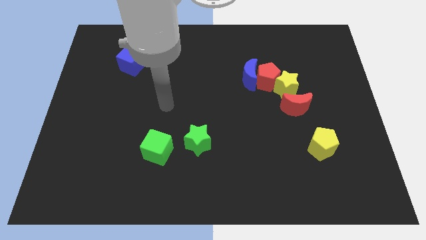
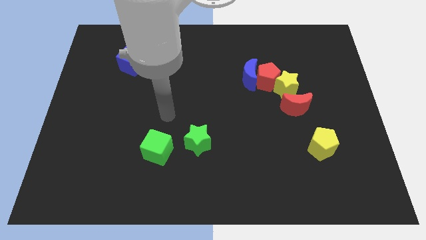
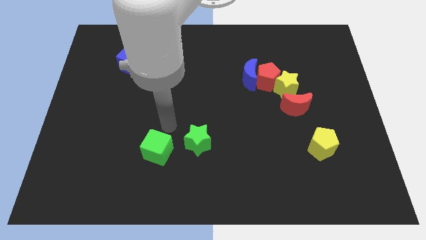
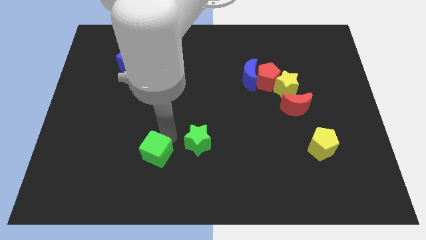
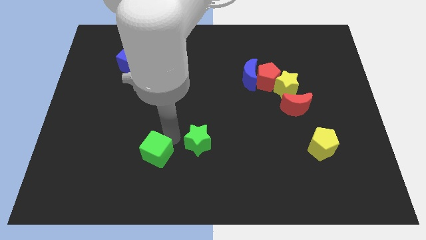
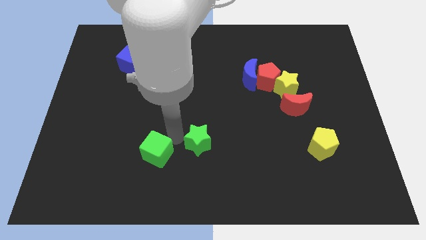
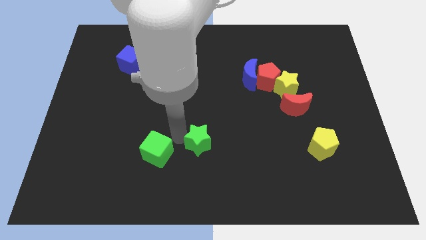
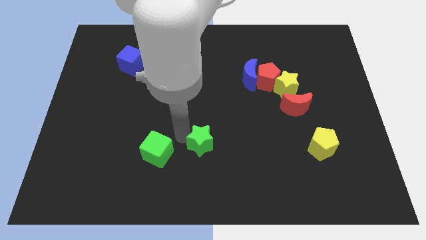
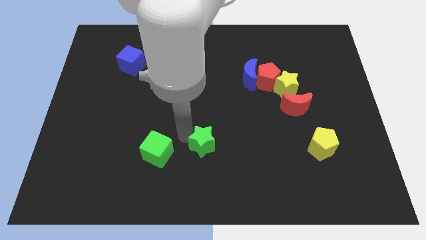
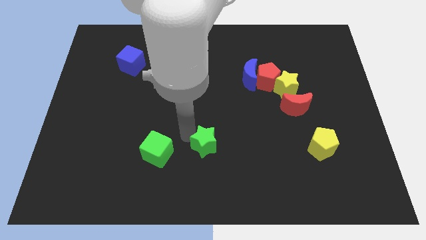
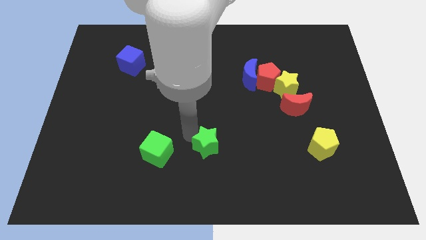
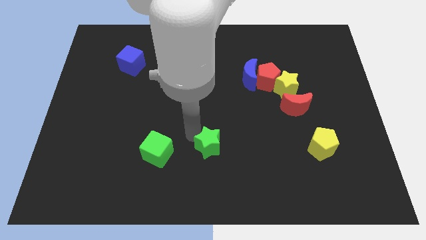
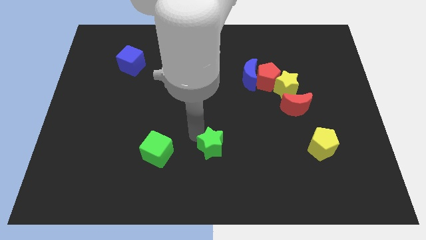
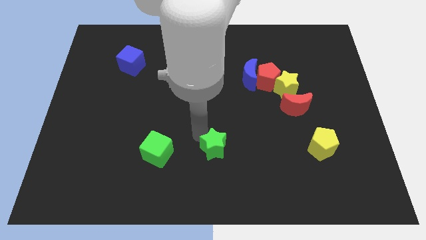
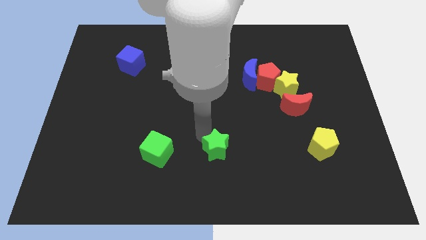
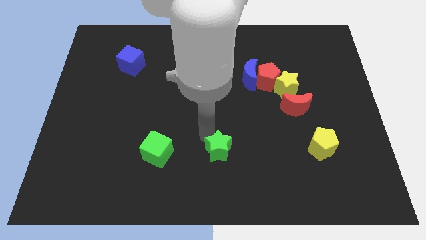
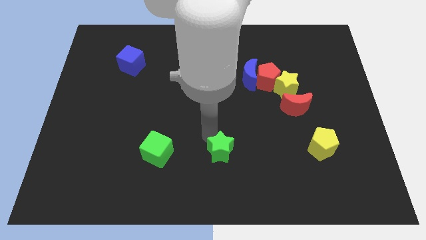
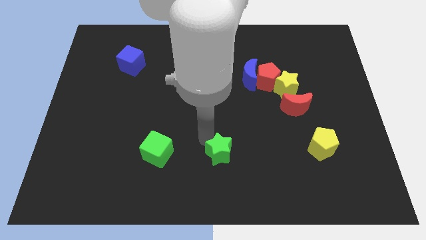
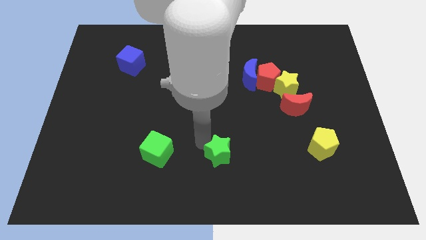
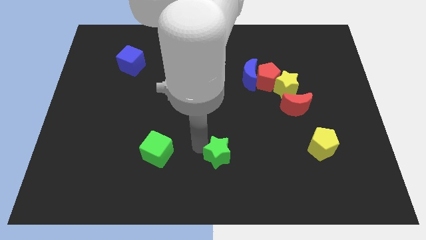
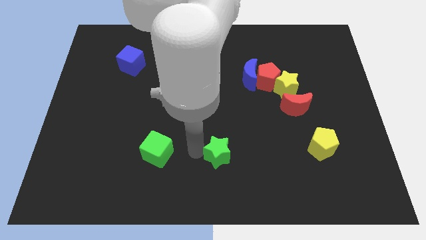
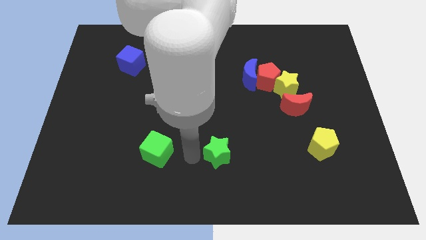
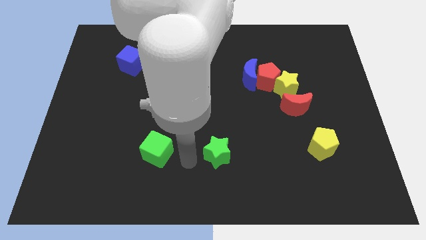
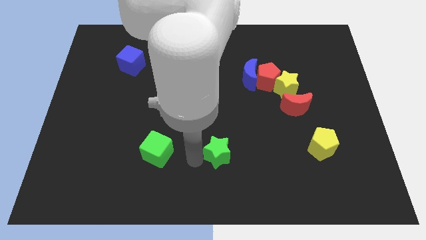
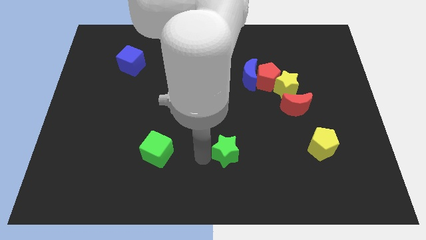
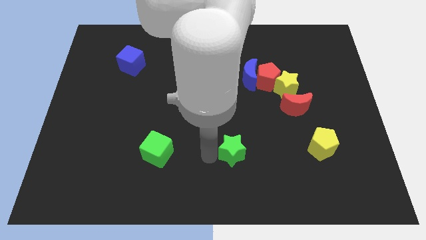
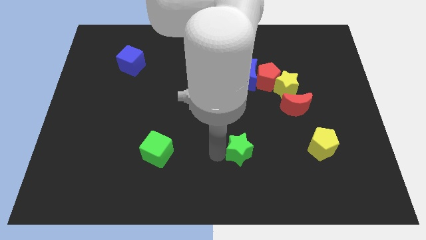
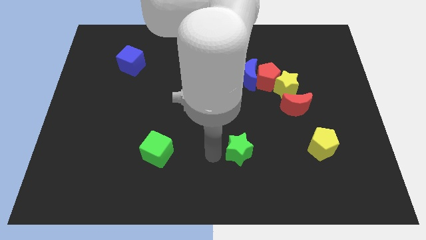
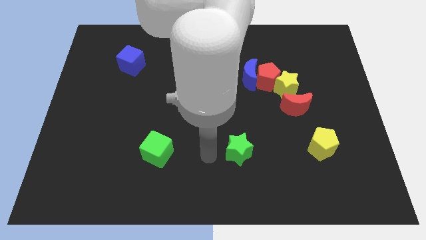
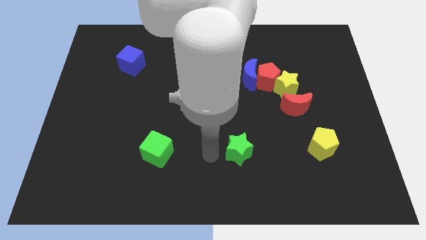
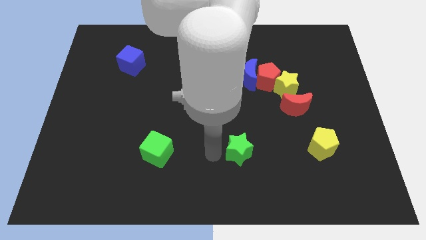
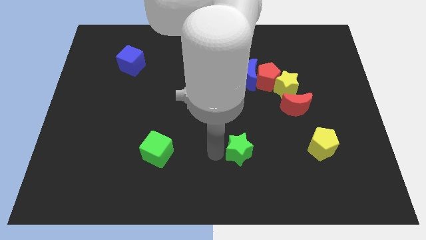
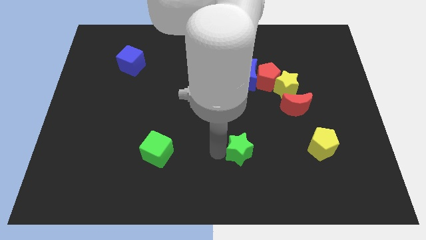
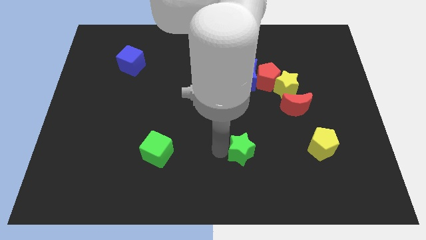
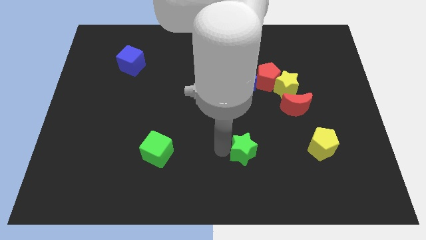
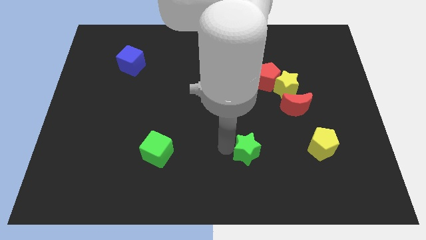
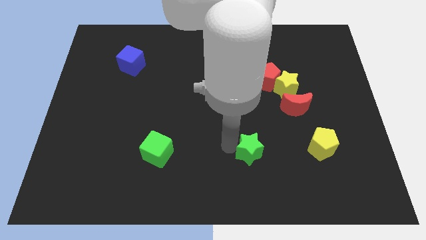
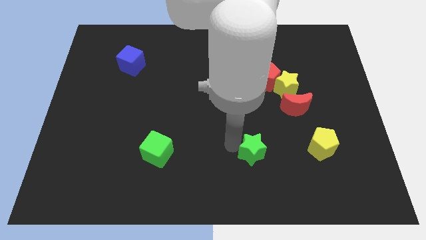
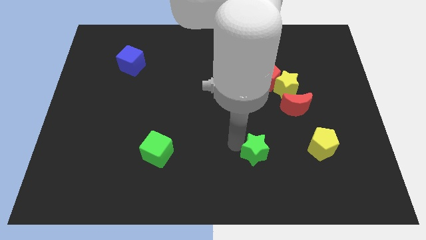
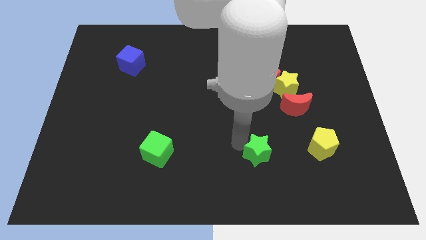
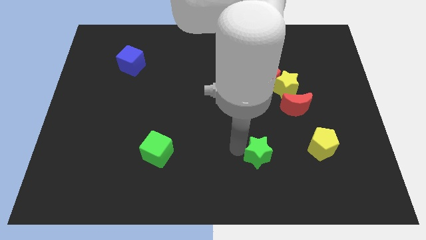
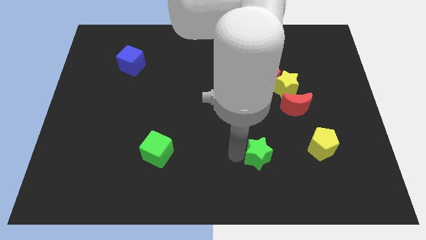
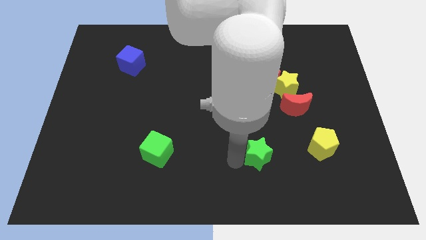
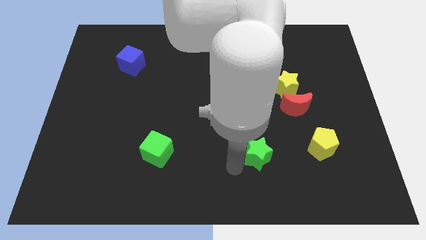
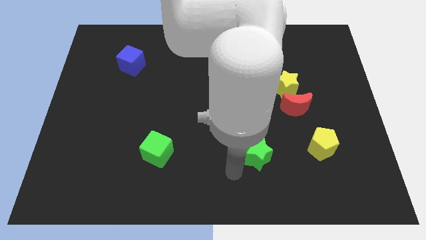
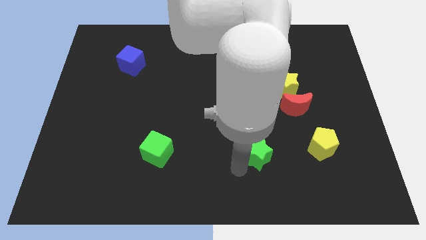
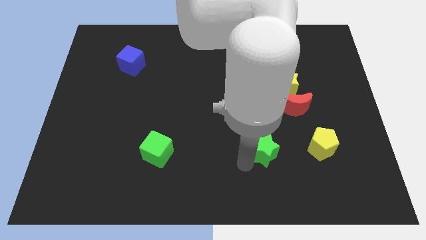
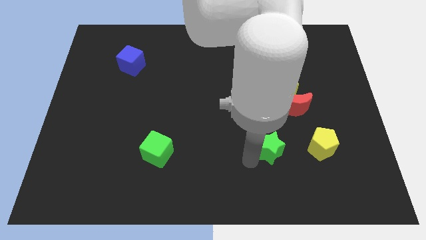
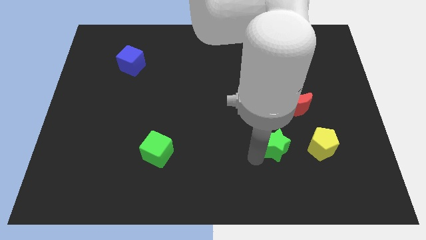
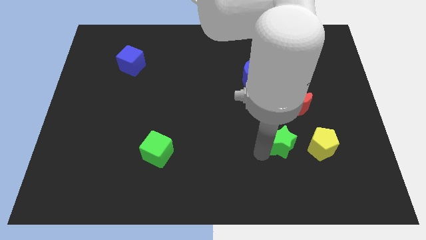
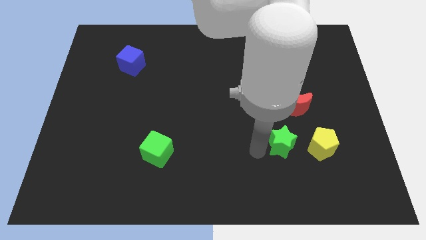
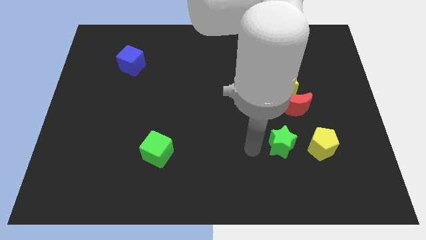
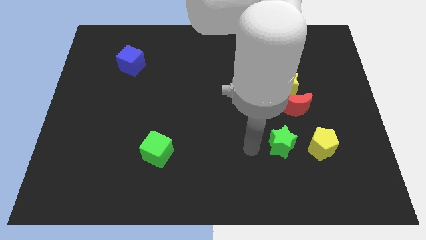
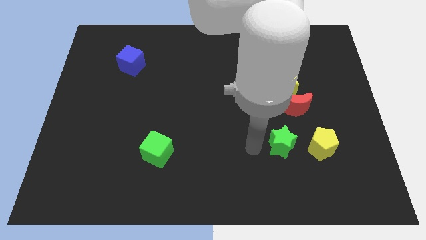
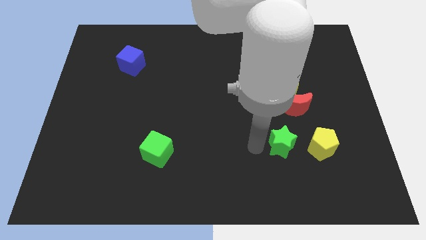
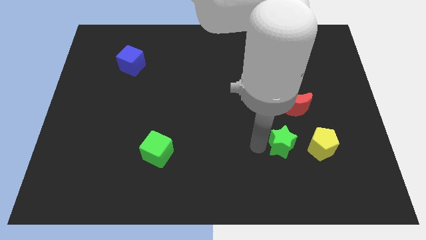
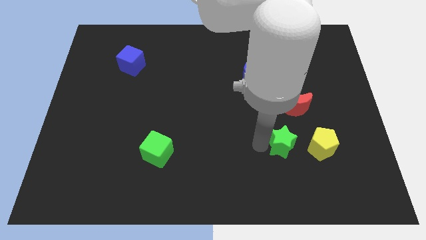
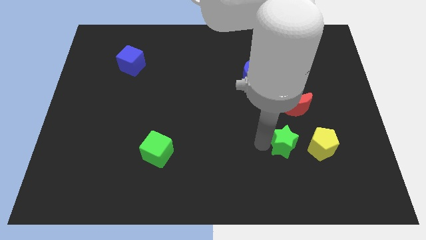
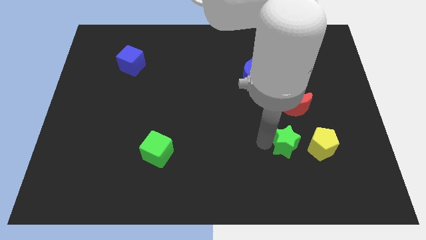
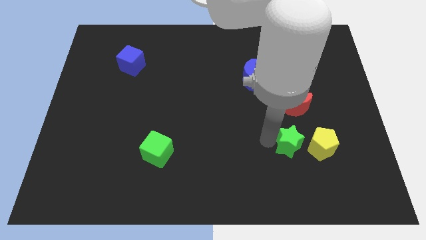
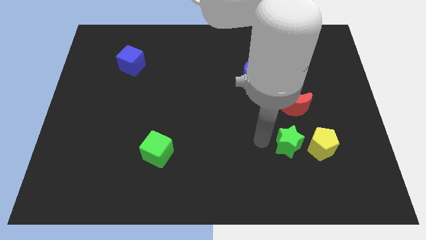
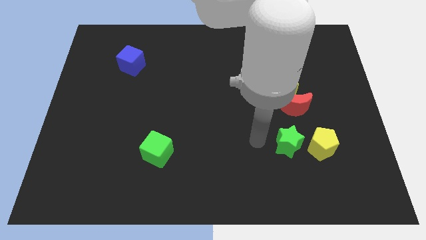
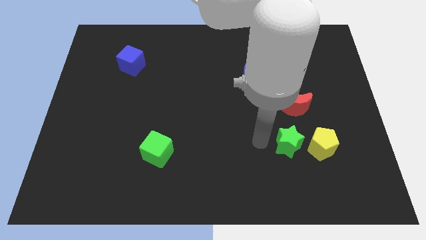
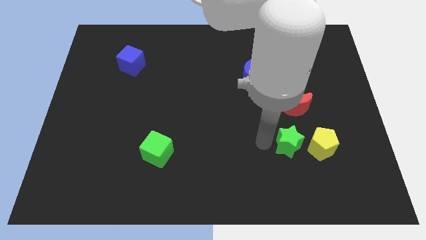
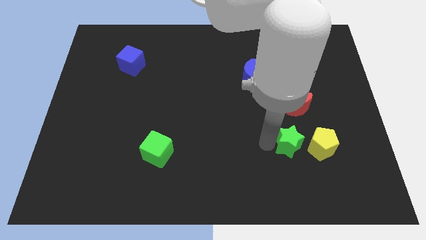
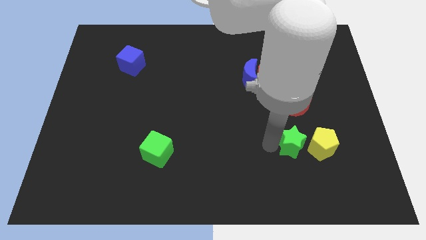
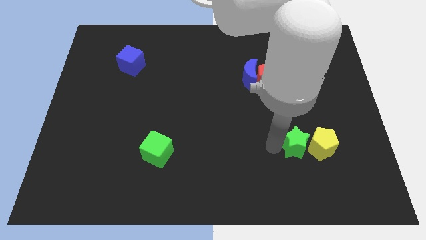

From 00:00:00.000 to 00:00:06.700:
move the green star next to the yellow pentagon

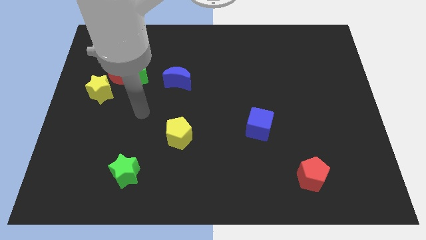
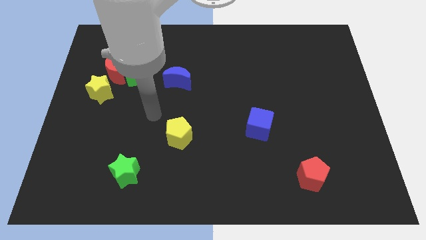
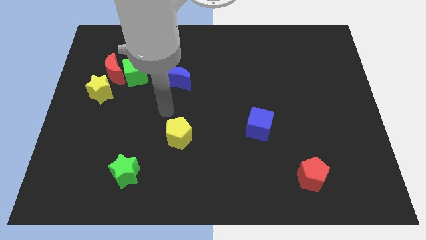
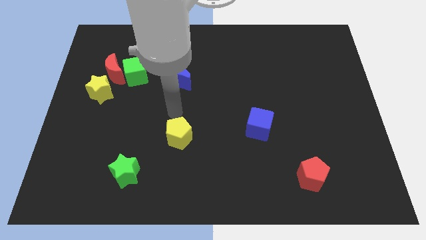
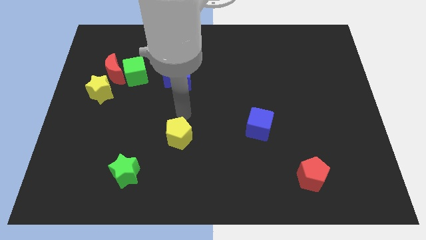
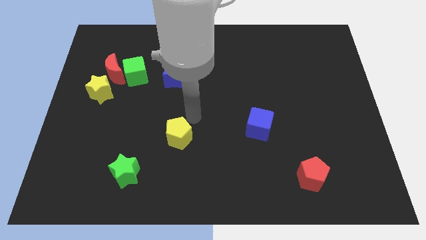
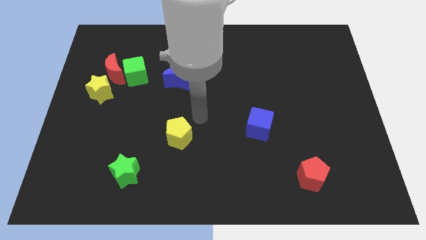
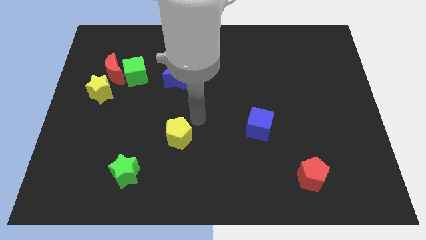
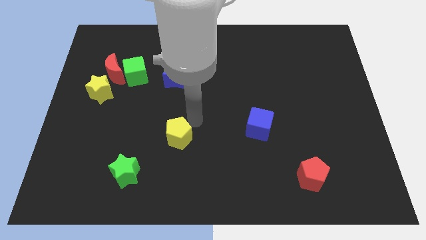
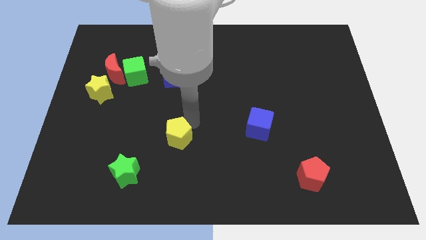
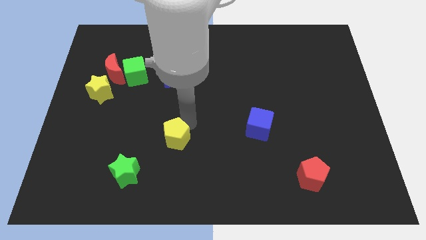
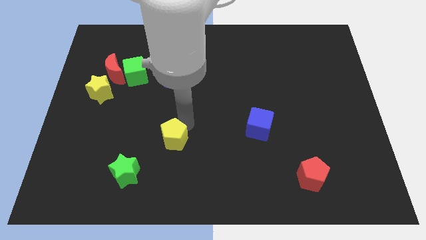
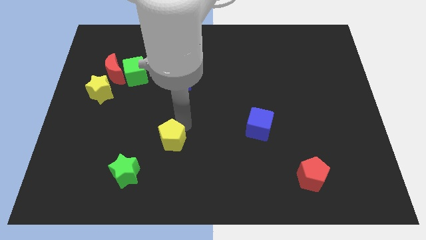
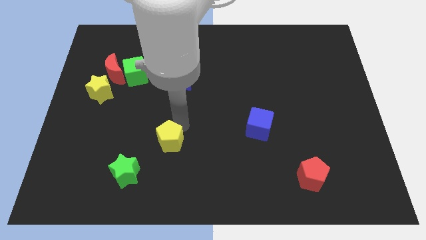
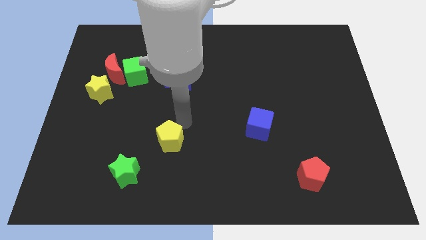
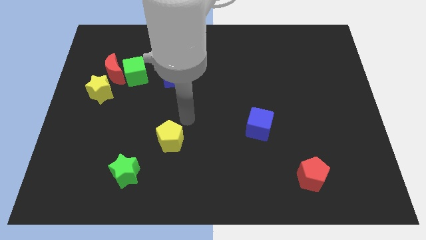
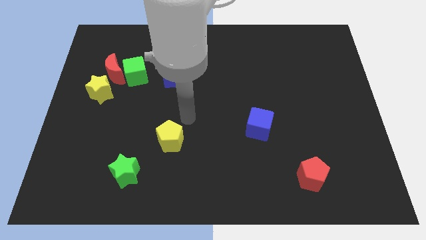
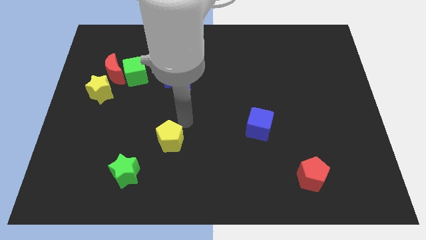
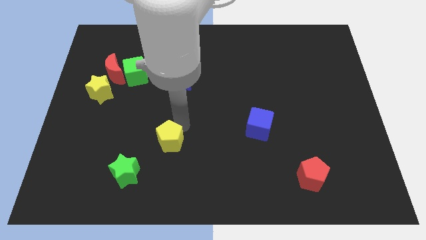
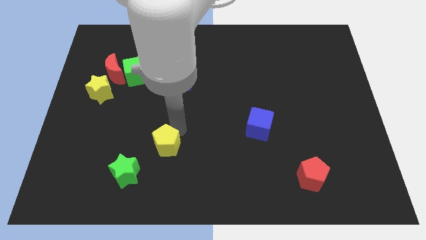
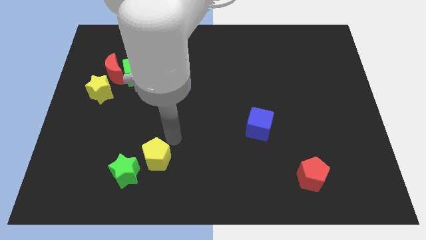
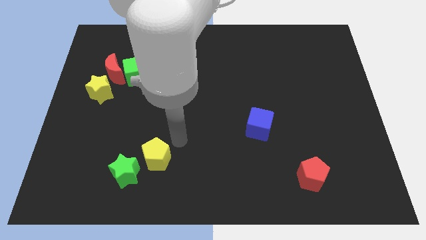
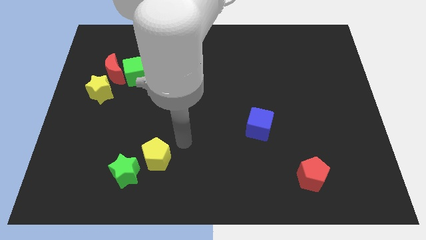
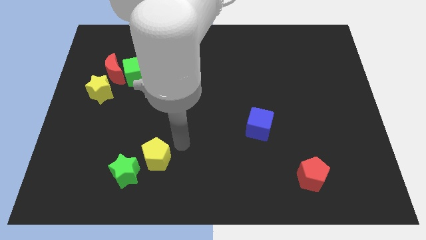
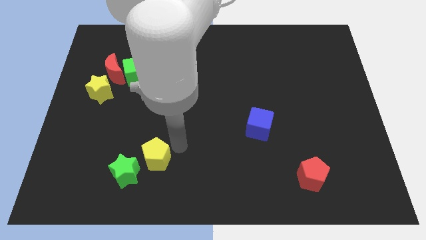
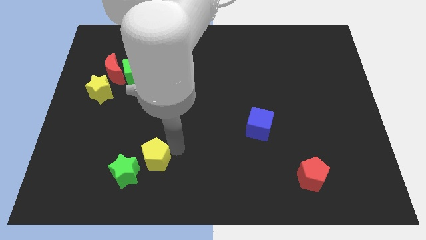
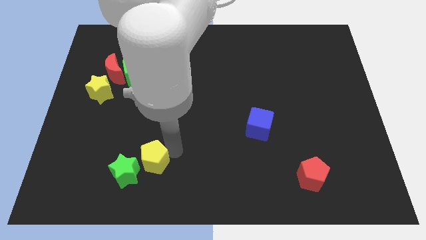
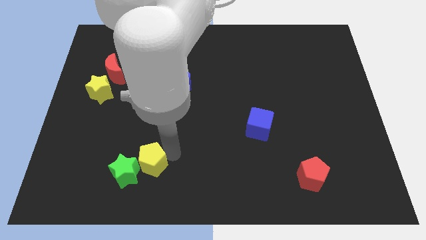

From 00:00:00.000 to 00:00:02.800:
move the yellow pentagon close to the green star
